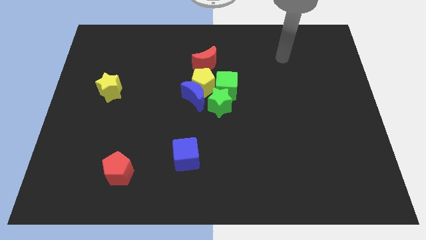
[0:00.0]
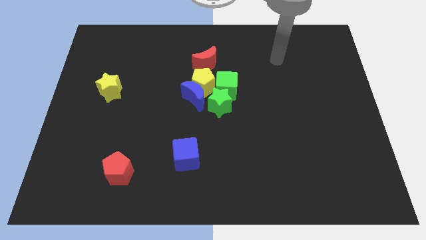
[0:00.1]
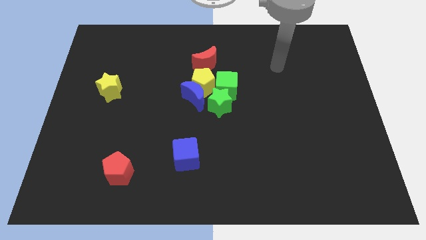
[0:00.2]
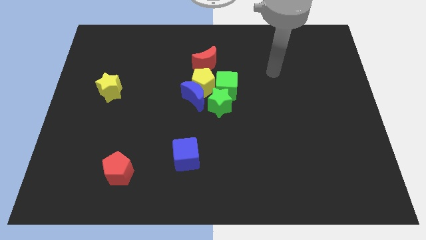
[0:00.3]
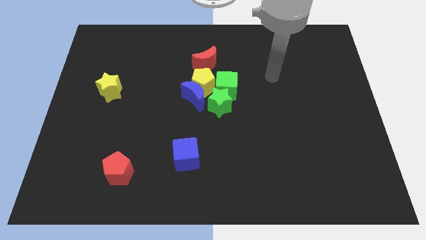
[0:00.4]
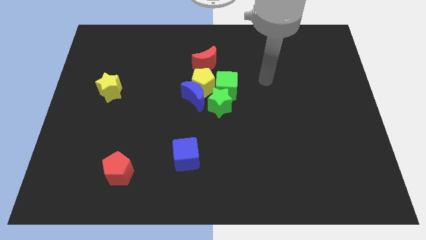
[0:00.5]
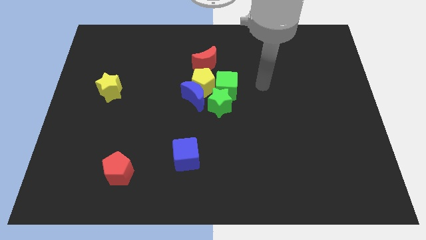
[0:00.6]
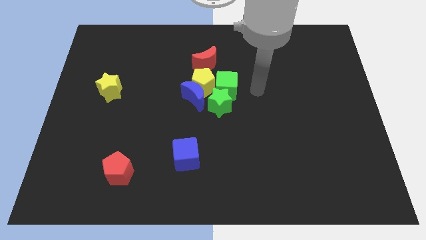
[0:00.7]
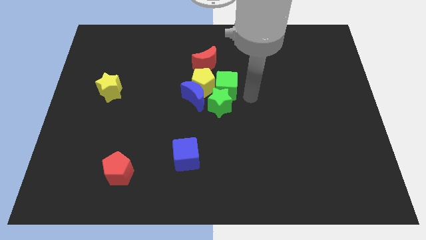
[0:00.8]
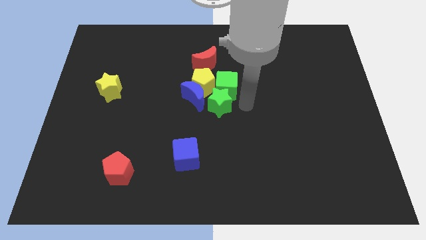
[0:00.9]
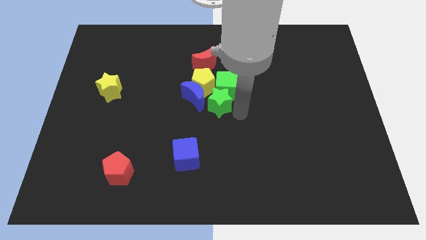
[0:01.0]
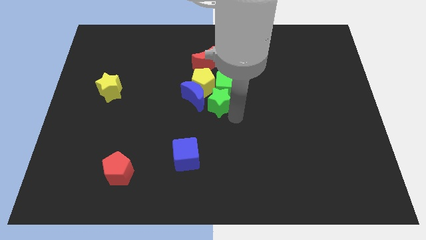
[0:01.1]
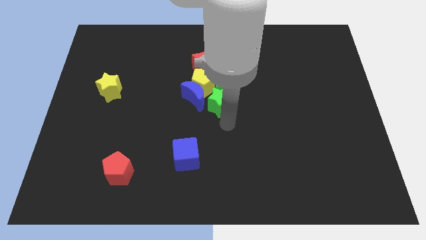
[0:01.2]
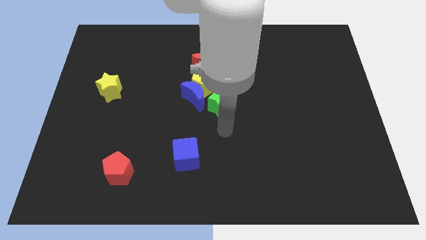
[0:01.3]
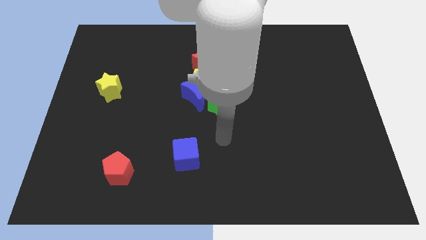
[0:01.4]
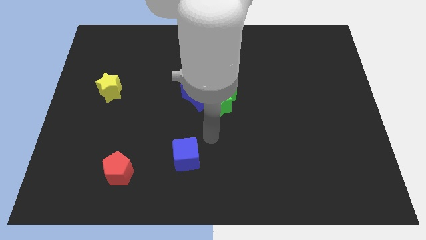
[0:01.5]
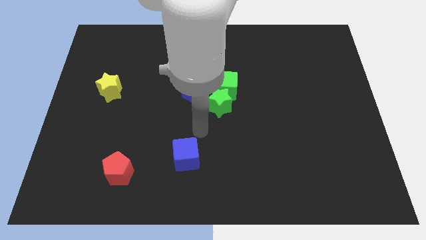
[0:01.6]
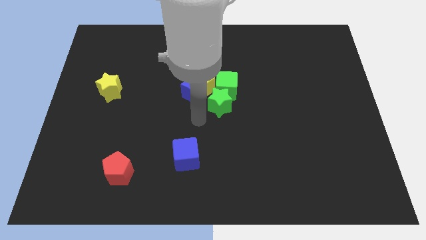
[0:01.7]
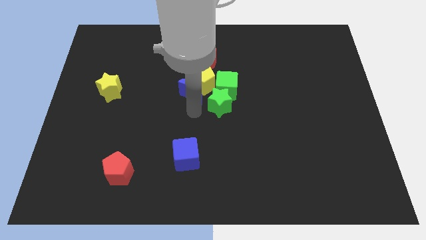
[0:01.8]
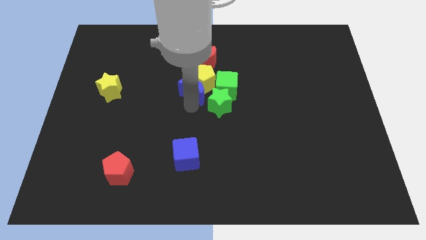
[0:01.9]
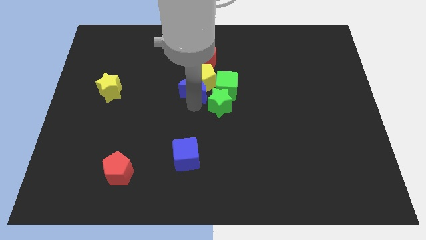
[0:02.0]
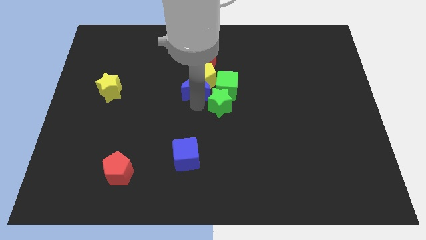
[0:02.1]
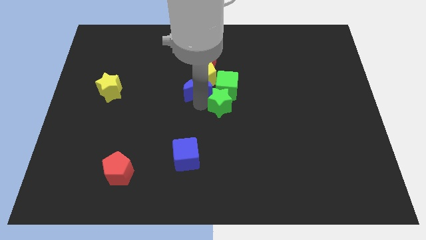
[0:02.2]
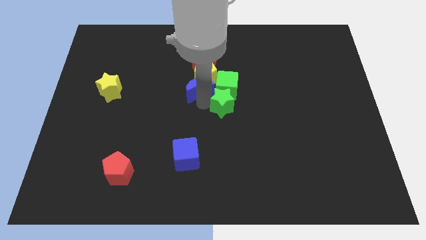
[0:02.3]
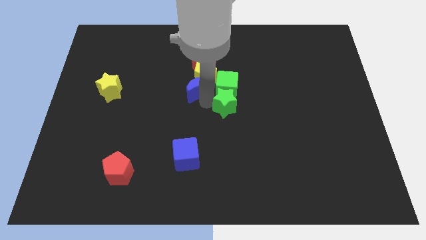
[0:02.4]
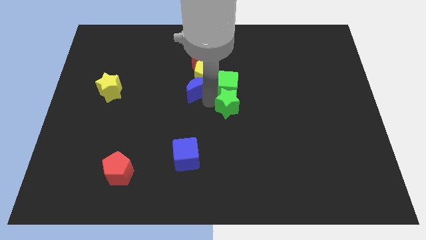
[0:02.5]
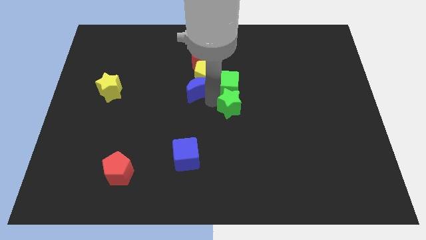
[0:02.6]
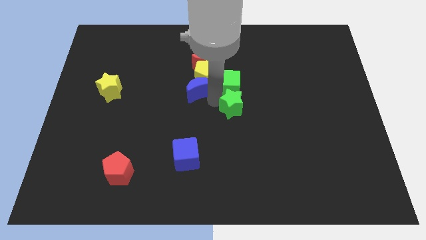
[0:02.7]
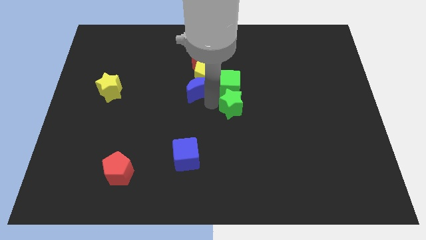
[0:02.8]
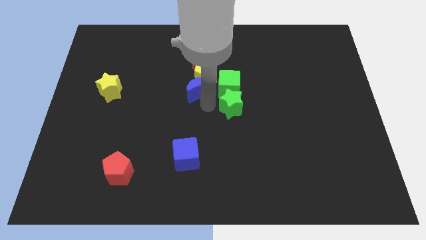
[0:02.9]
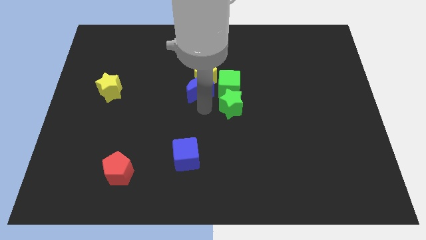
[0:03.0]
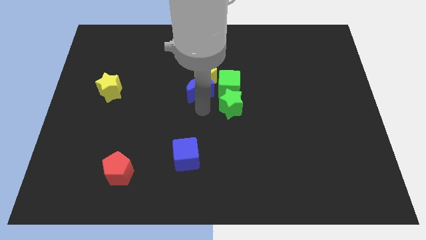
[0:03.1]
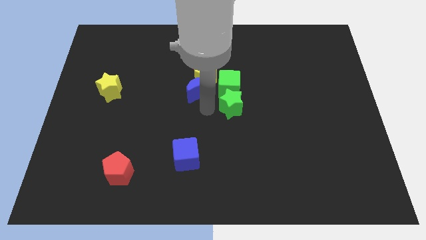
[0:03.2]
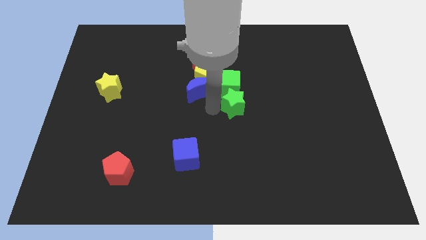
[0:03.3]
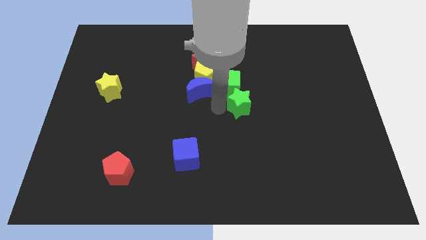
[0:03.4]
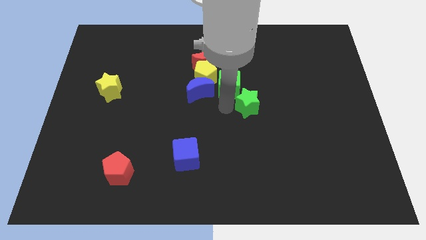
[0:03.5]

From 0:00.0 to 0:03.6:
push the green star a bit to the right

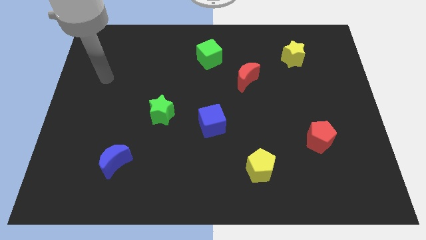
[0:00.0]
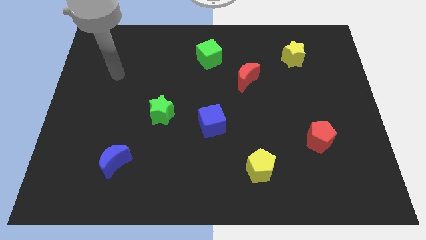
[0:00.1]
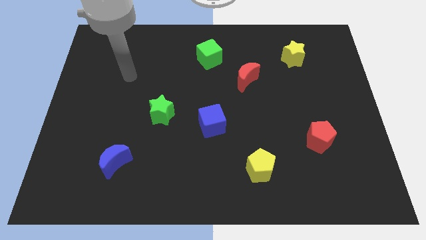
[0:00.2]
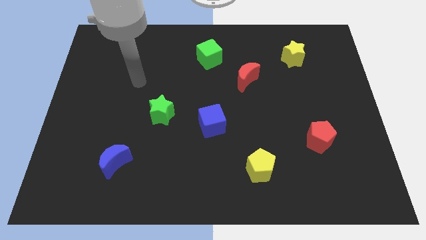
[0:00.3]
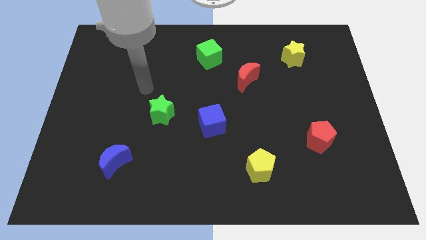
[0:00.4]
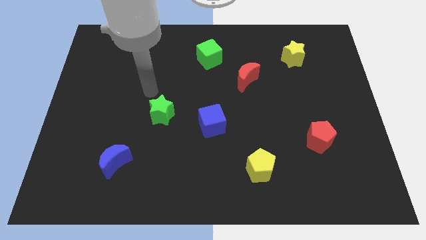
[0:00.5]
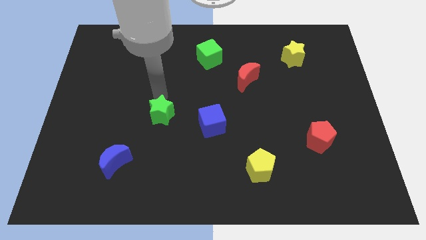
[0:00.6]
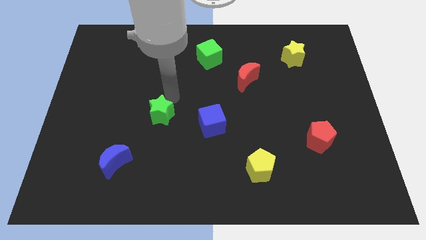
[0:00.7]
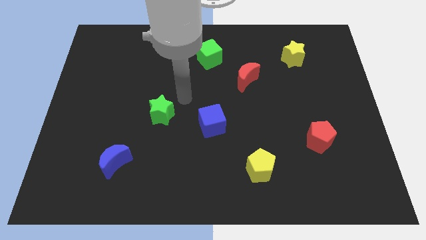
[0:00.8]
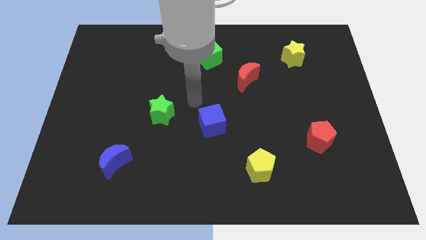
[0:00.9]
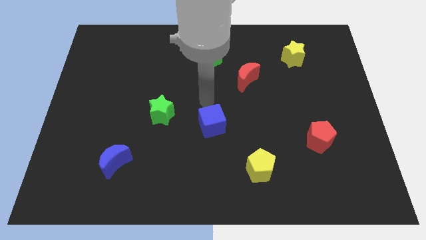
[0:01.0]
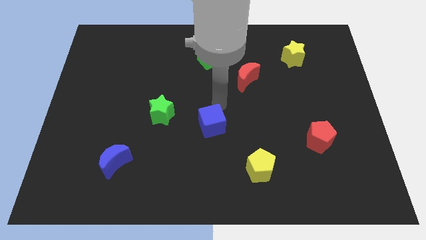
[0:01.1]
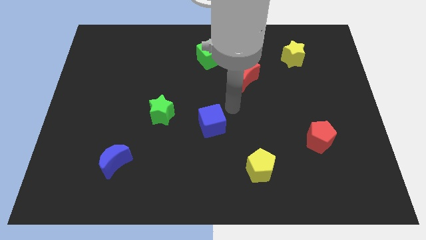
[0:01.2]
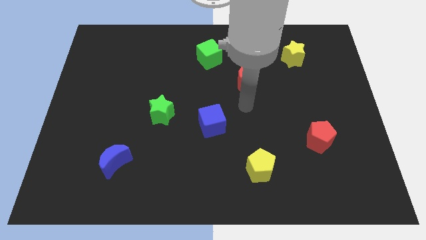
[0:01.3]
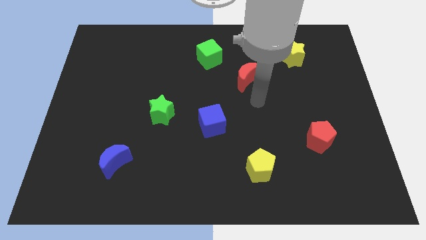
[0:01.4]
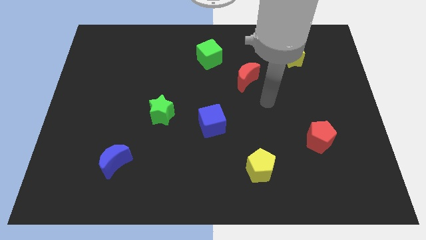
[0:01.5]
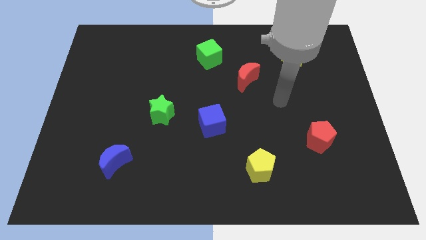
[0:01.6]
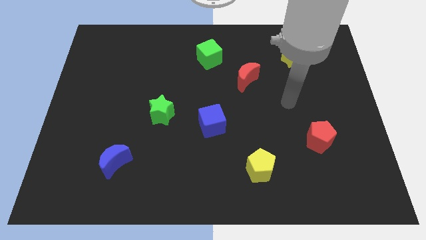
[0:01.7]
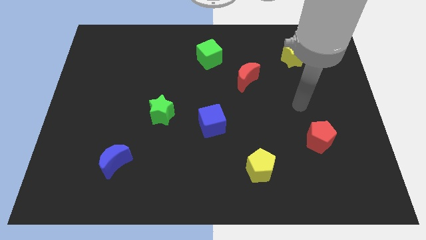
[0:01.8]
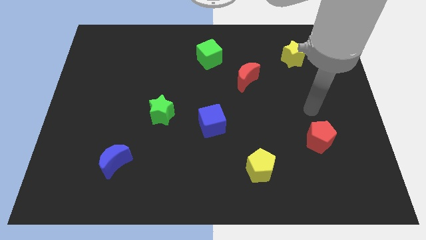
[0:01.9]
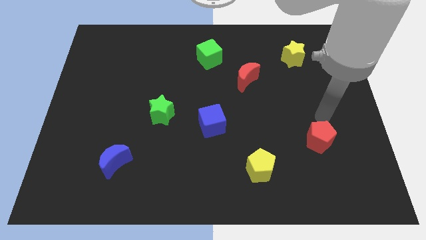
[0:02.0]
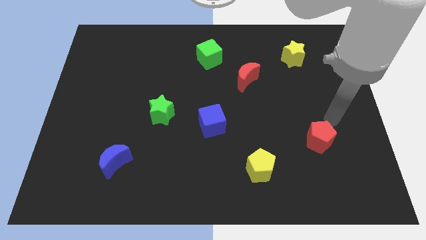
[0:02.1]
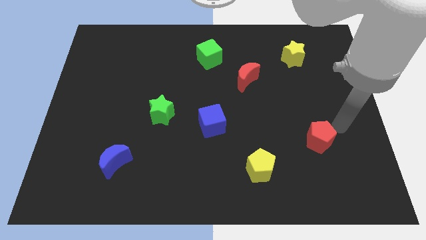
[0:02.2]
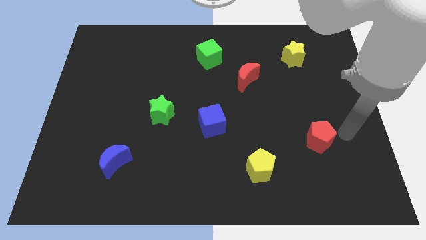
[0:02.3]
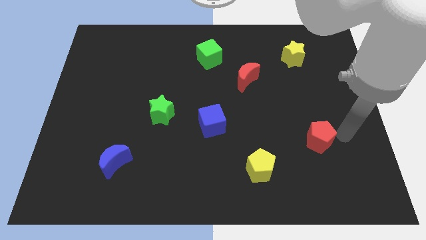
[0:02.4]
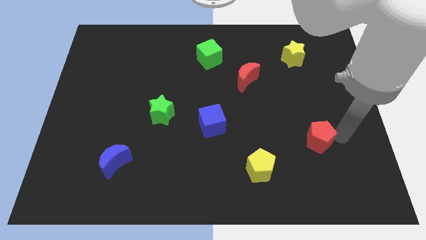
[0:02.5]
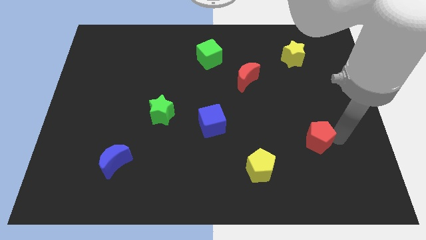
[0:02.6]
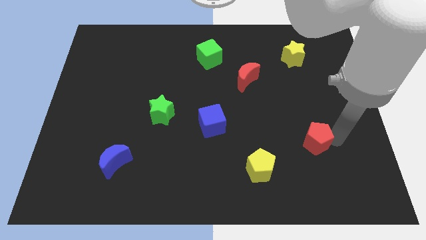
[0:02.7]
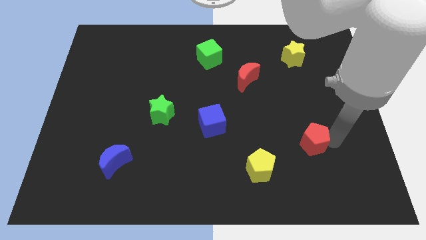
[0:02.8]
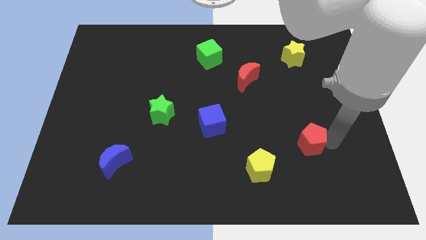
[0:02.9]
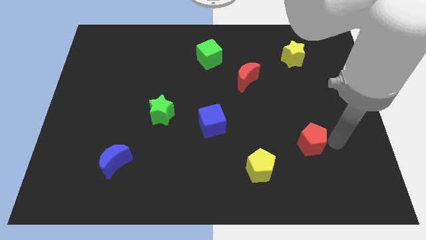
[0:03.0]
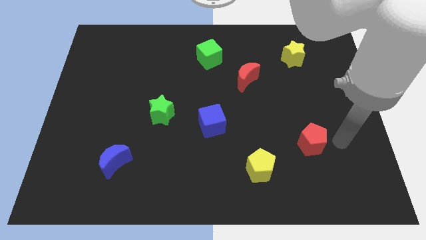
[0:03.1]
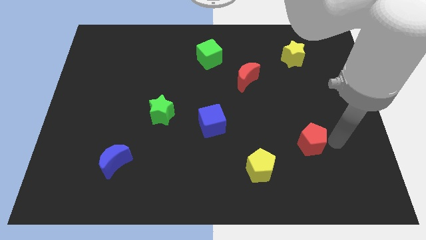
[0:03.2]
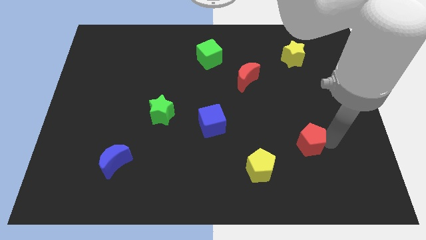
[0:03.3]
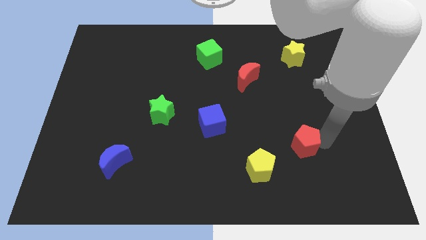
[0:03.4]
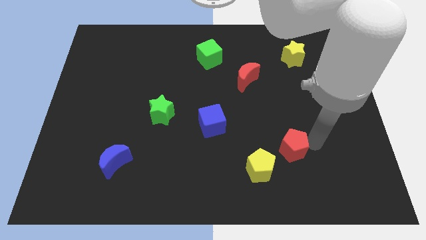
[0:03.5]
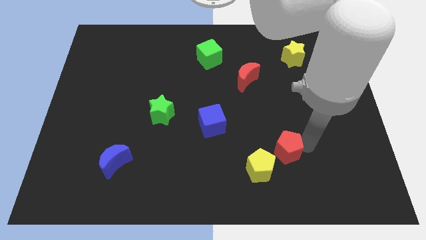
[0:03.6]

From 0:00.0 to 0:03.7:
slightly push the red pentagon left

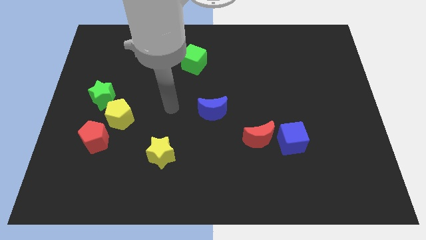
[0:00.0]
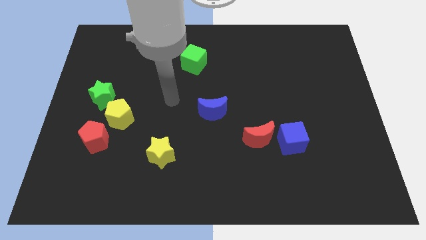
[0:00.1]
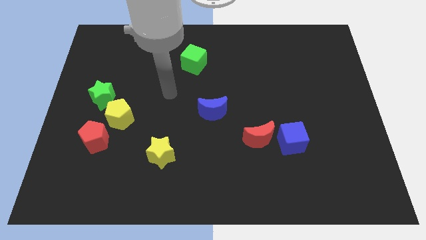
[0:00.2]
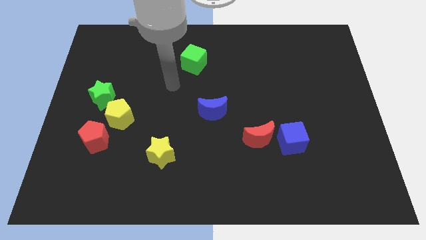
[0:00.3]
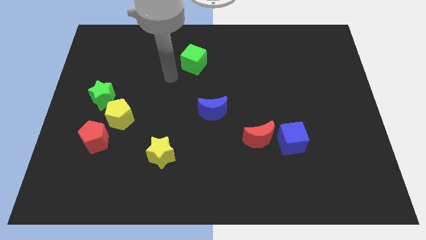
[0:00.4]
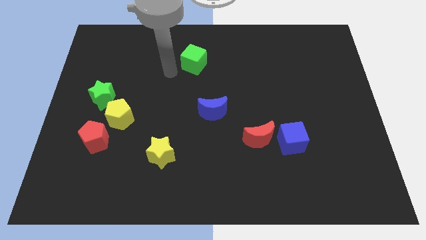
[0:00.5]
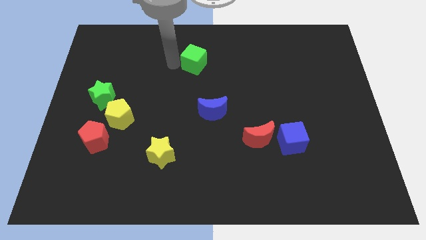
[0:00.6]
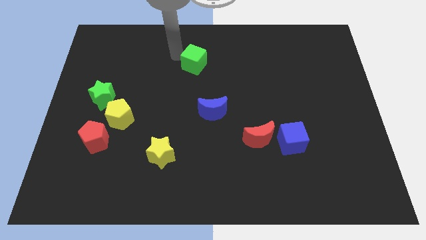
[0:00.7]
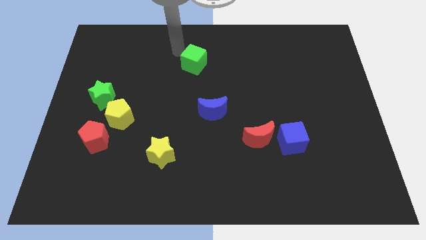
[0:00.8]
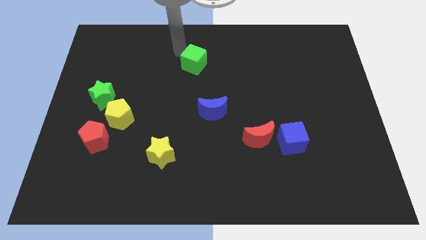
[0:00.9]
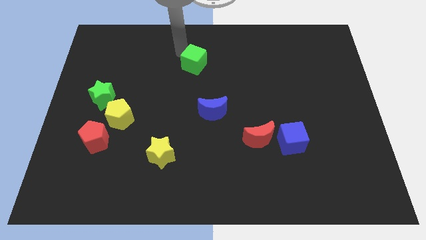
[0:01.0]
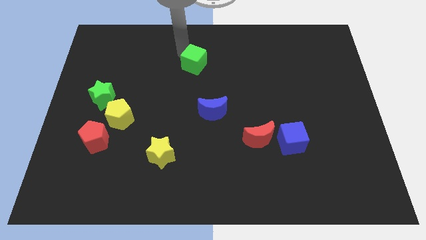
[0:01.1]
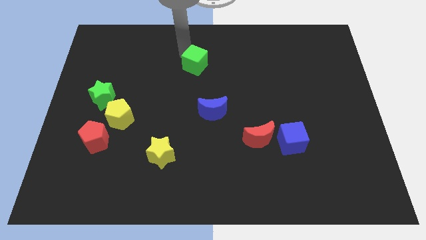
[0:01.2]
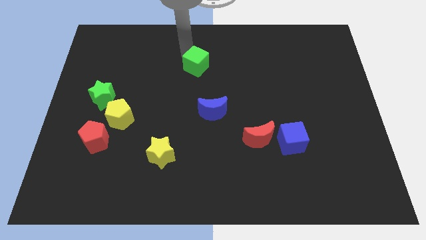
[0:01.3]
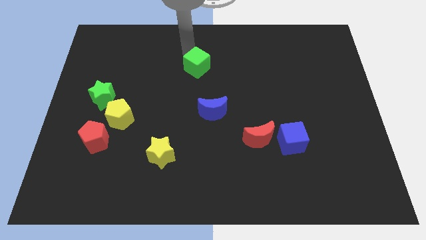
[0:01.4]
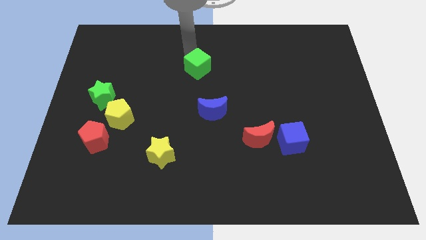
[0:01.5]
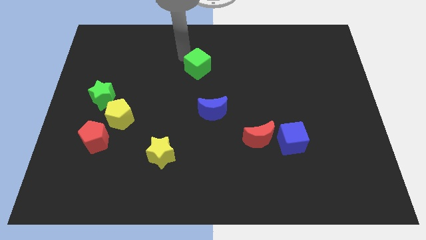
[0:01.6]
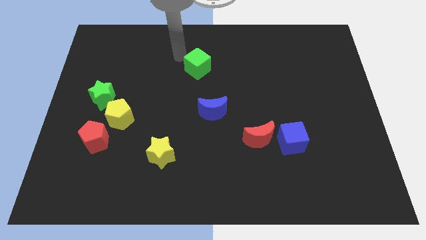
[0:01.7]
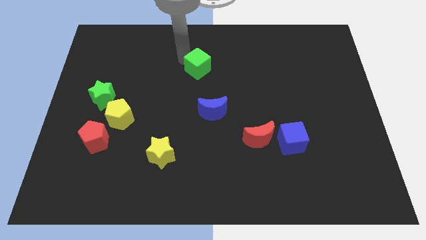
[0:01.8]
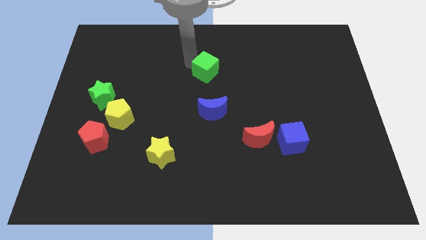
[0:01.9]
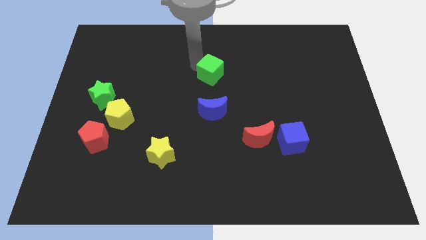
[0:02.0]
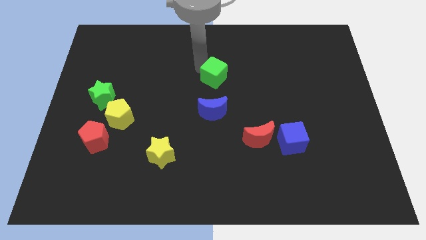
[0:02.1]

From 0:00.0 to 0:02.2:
slightly push the green cube diagonally down and to the right
